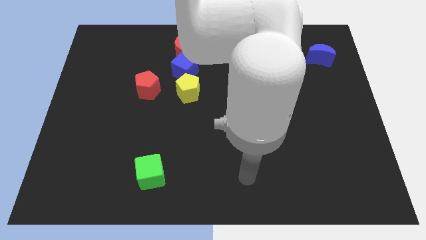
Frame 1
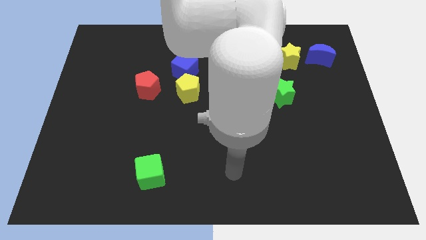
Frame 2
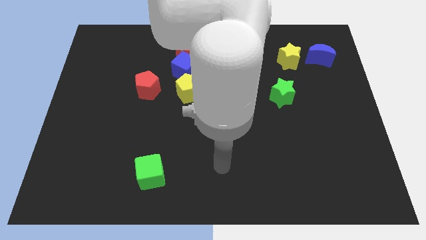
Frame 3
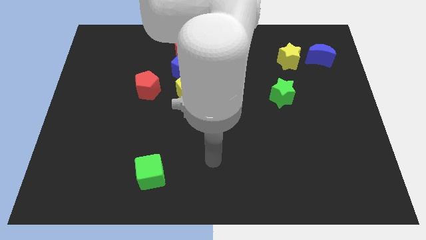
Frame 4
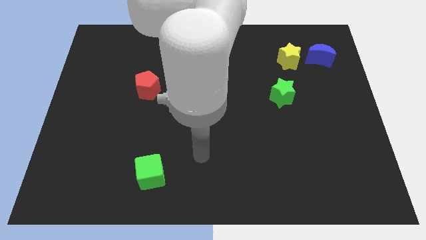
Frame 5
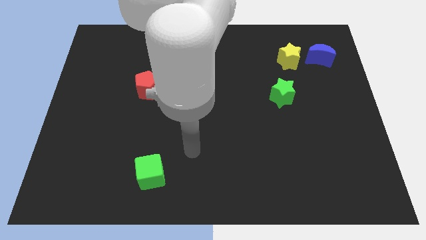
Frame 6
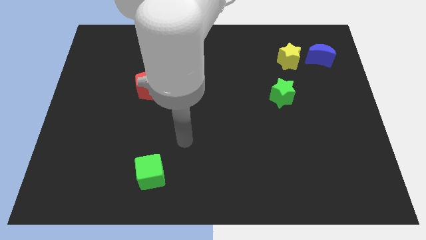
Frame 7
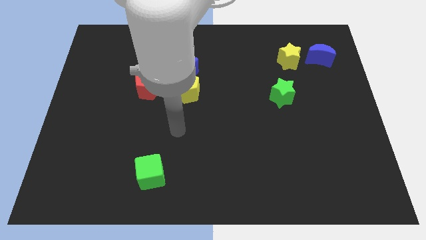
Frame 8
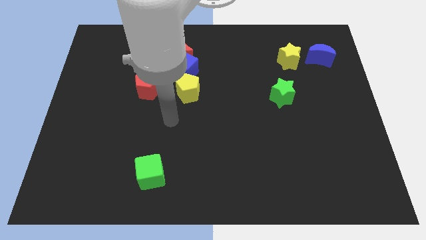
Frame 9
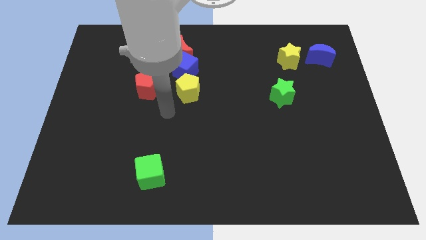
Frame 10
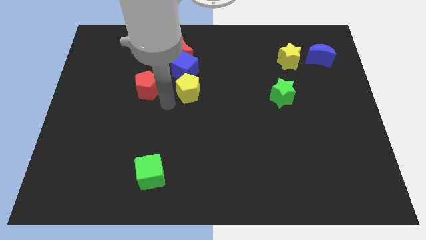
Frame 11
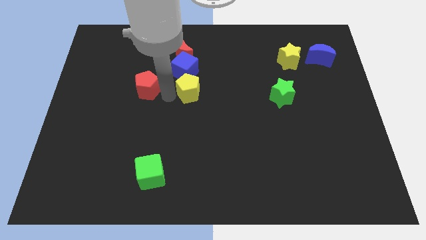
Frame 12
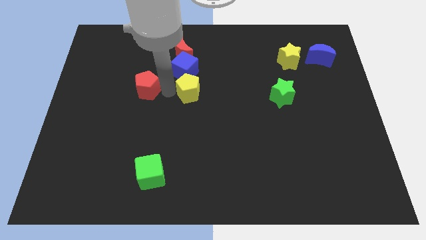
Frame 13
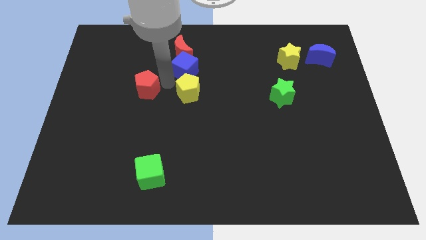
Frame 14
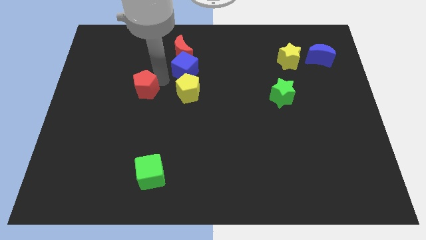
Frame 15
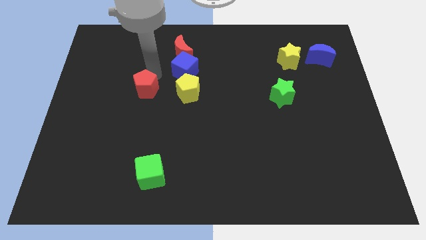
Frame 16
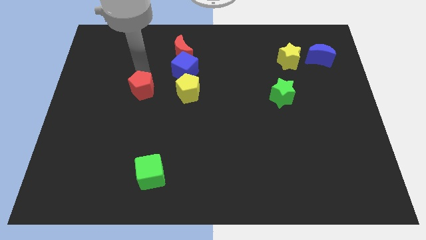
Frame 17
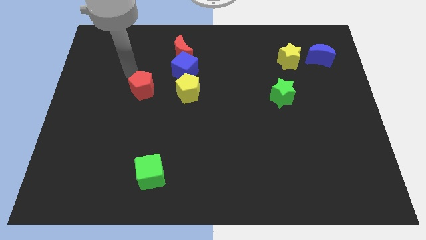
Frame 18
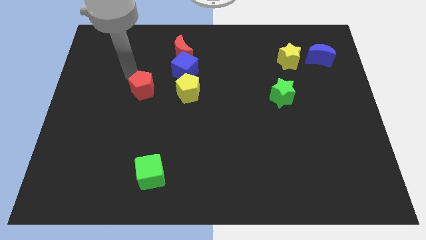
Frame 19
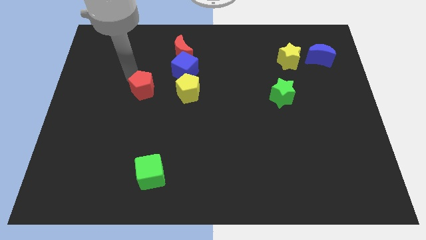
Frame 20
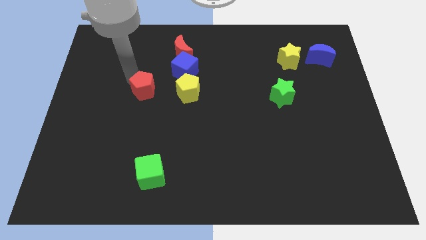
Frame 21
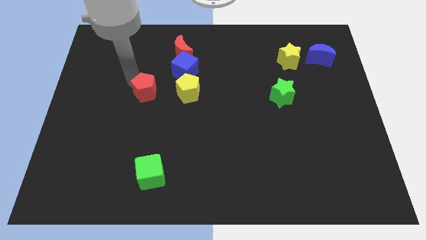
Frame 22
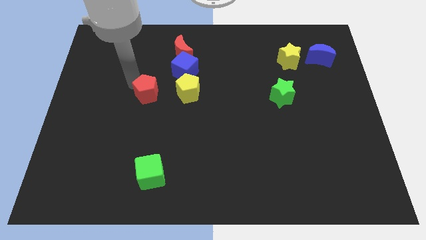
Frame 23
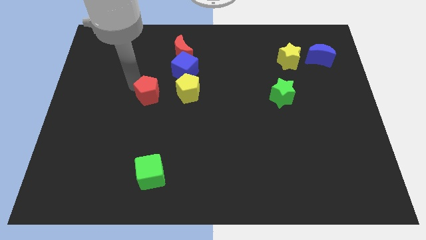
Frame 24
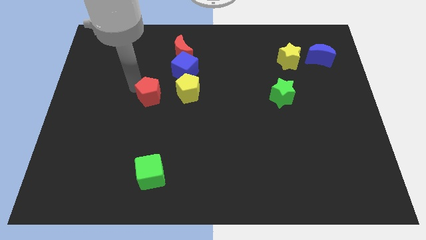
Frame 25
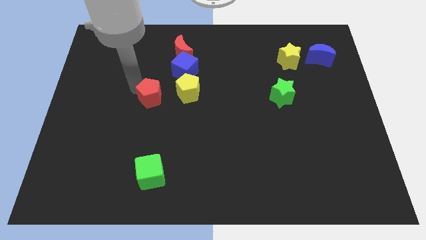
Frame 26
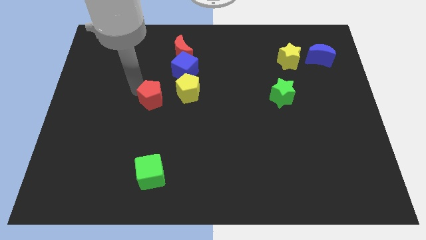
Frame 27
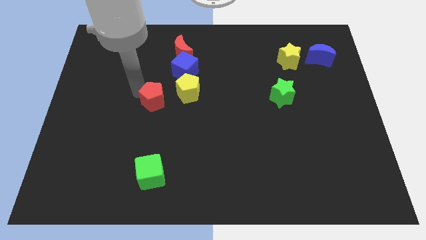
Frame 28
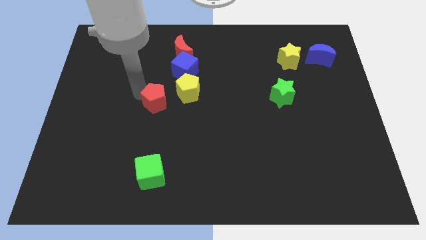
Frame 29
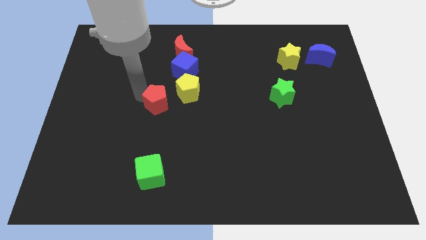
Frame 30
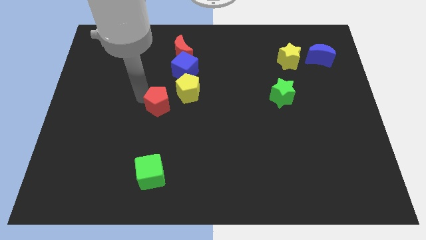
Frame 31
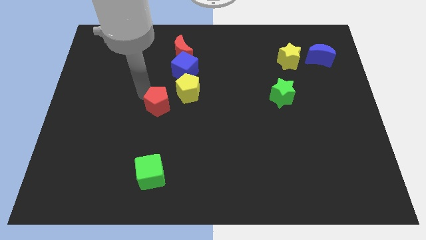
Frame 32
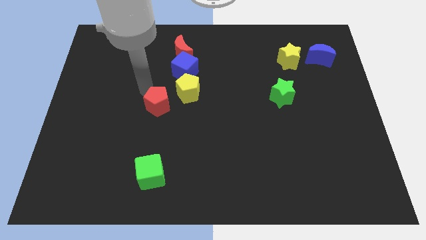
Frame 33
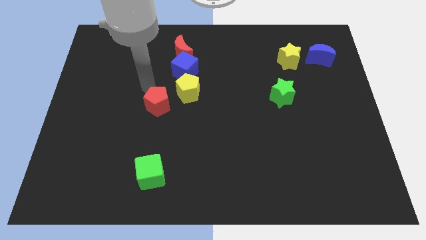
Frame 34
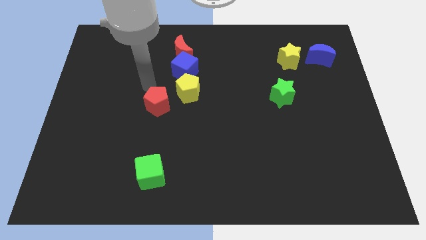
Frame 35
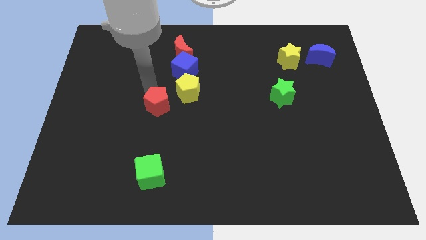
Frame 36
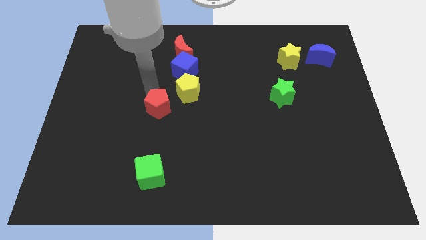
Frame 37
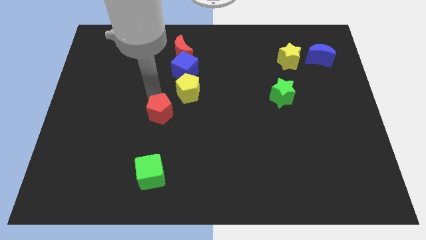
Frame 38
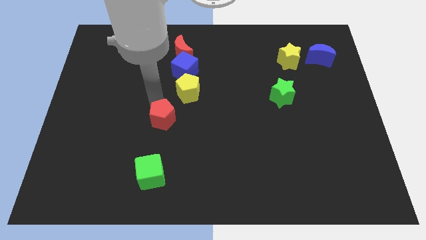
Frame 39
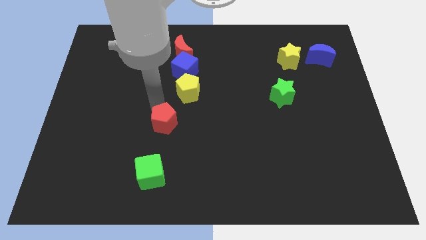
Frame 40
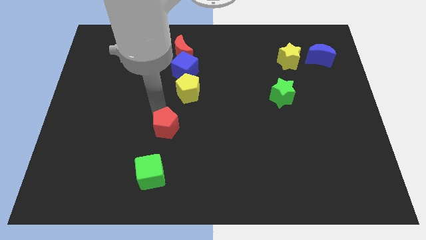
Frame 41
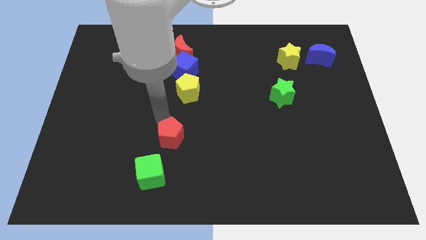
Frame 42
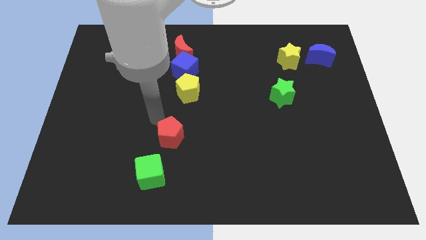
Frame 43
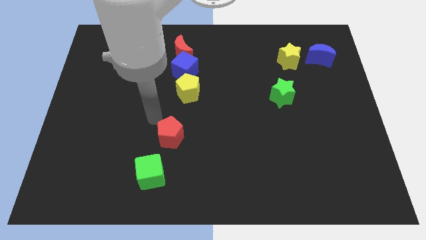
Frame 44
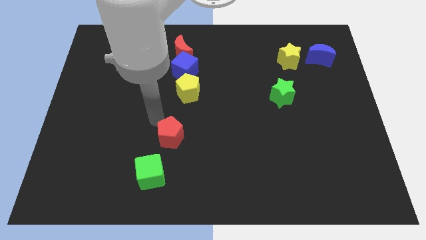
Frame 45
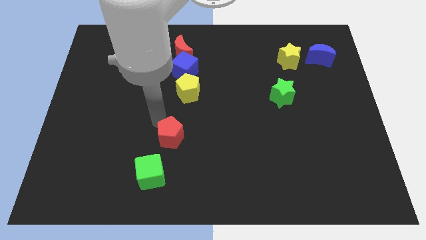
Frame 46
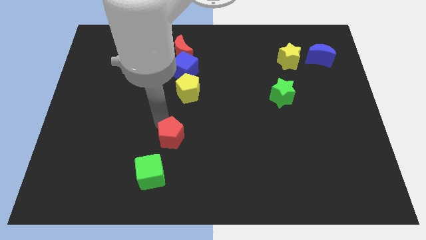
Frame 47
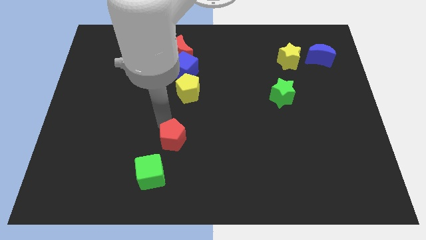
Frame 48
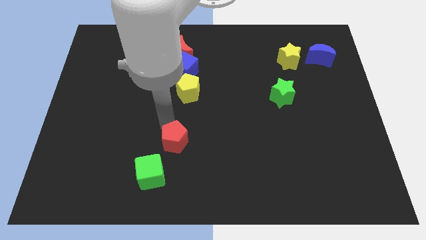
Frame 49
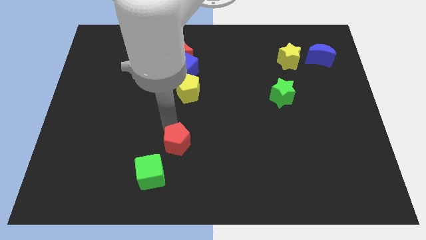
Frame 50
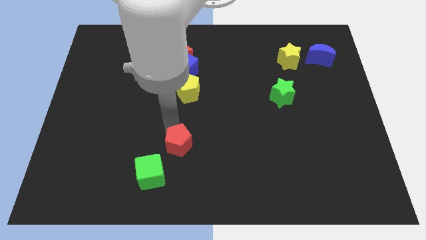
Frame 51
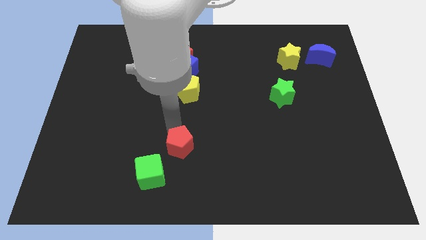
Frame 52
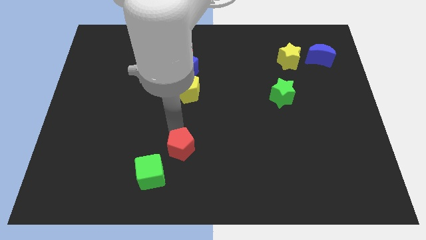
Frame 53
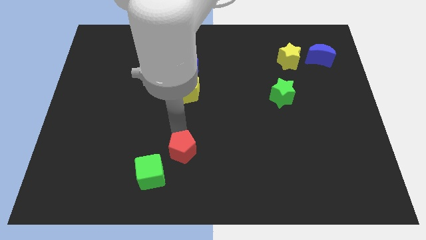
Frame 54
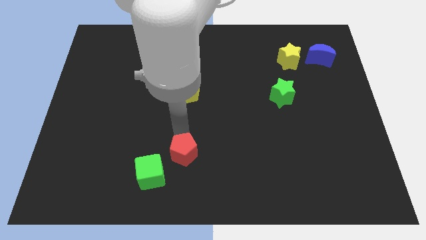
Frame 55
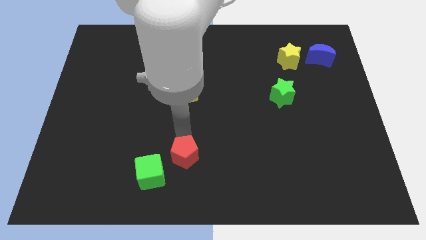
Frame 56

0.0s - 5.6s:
slide the red pentagon right of the green cube

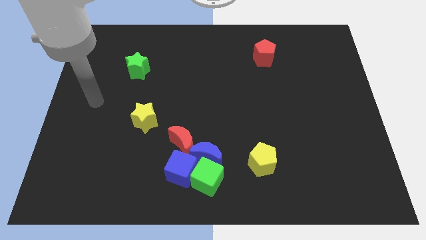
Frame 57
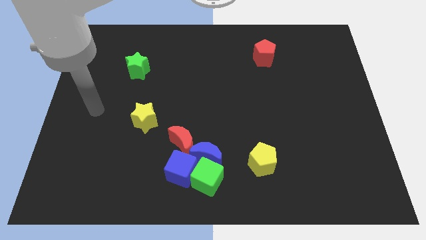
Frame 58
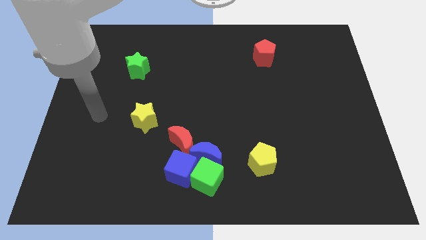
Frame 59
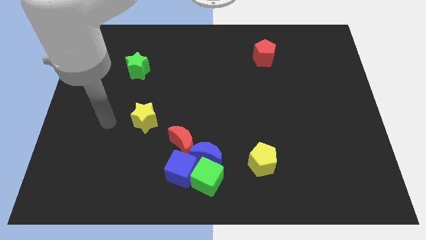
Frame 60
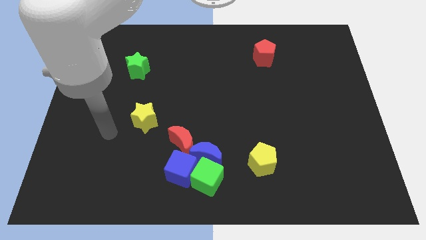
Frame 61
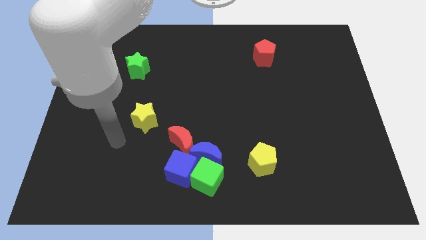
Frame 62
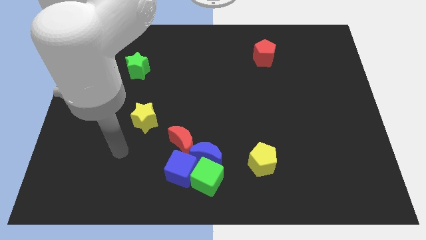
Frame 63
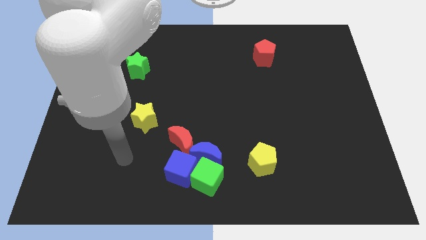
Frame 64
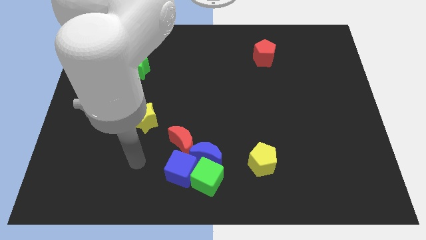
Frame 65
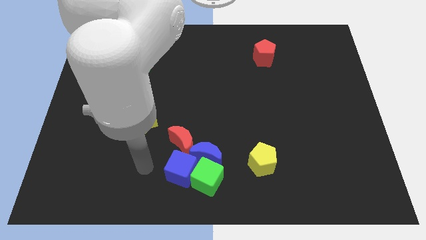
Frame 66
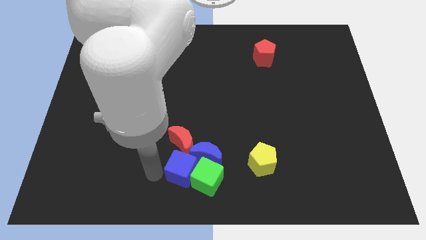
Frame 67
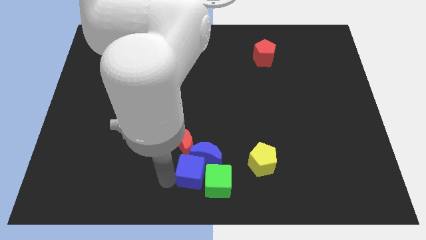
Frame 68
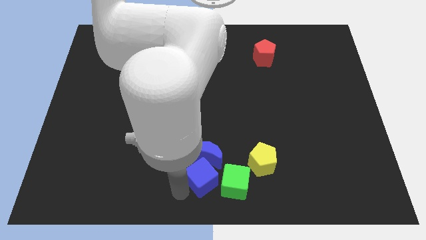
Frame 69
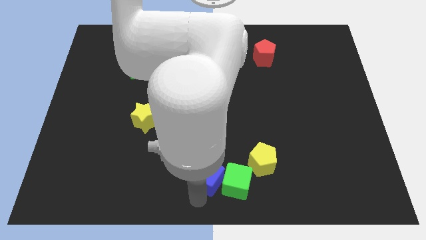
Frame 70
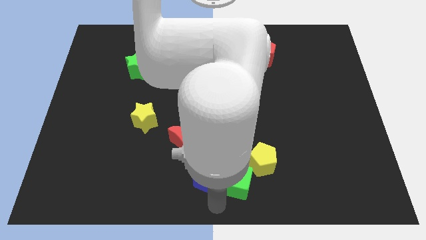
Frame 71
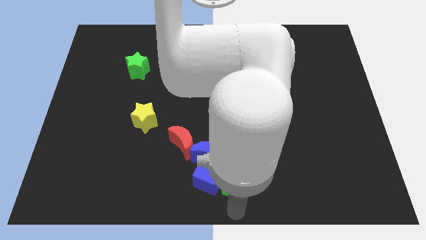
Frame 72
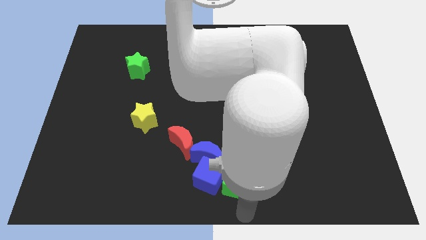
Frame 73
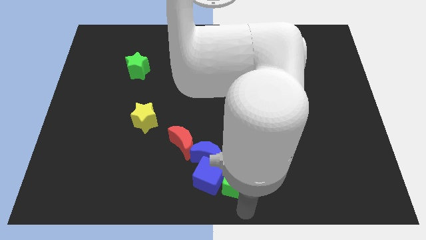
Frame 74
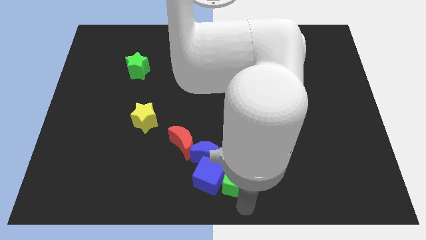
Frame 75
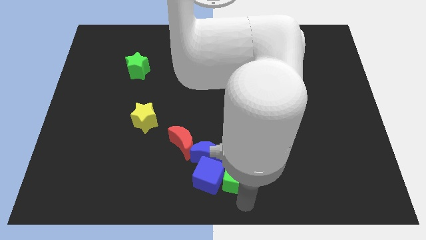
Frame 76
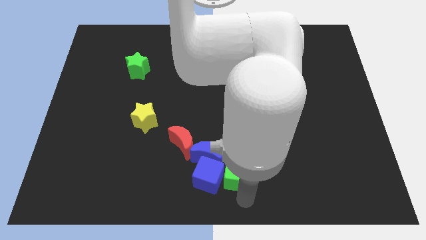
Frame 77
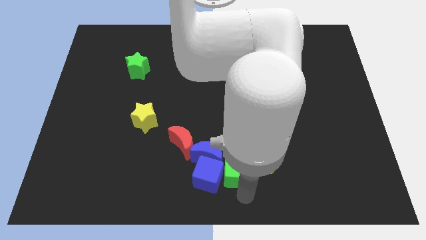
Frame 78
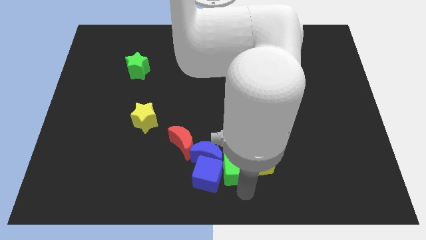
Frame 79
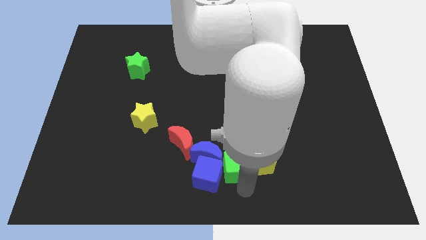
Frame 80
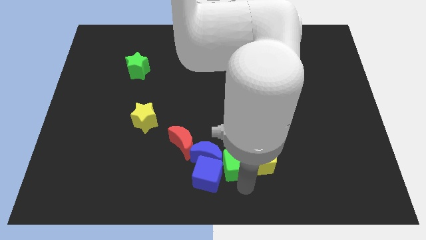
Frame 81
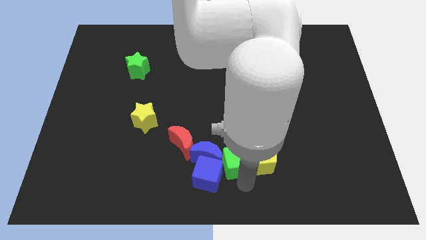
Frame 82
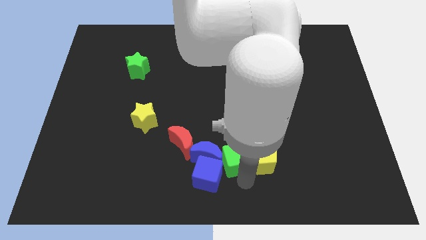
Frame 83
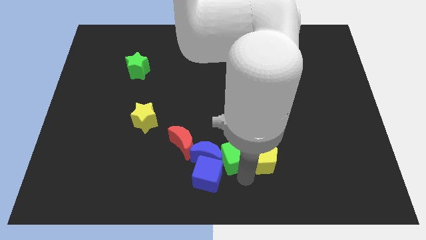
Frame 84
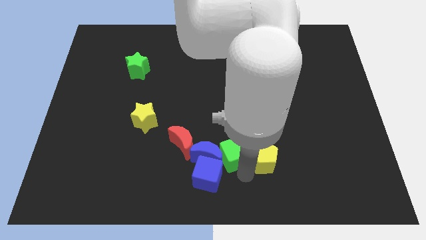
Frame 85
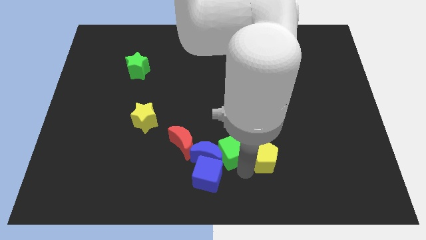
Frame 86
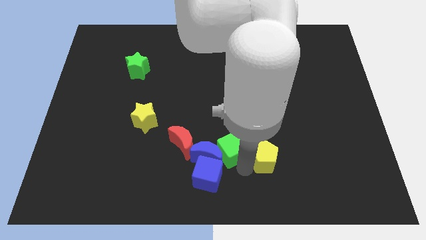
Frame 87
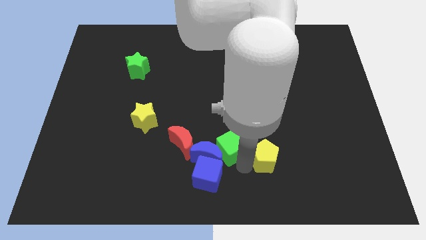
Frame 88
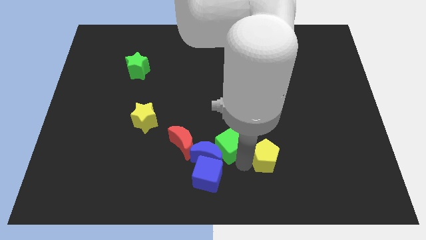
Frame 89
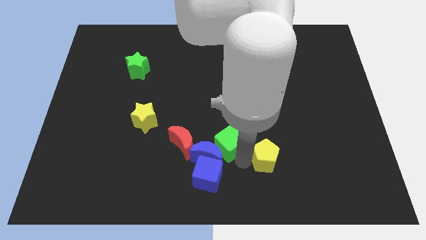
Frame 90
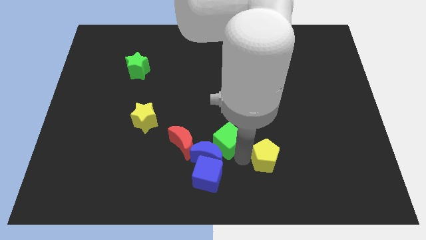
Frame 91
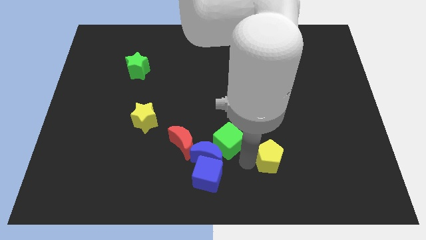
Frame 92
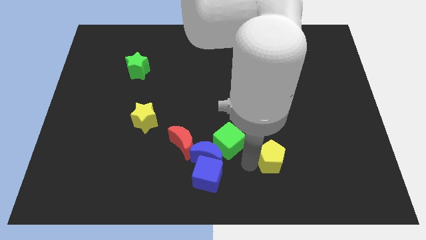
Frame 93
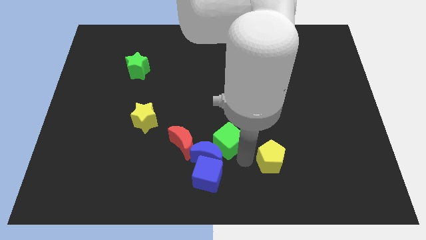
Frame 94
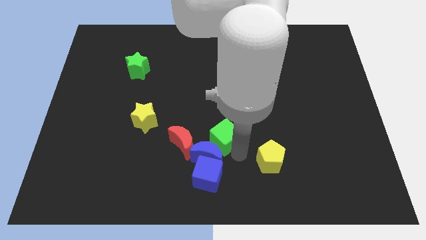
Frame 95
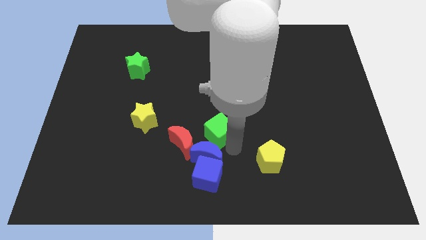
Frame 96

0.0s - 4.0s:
slide the green cube to the top right of the red moon
